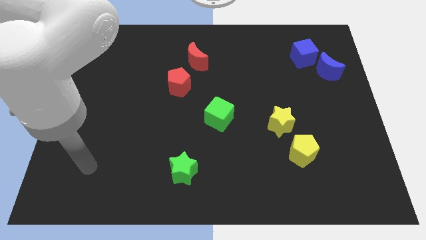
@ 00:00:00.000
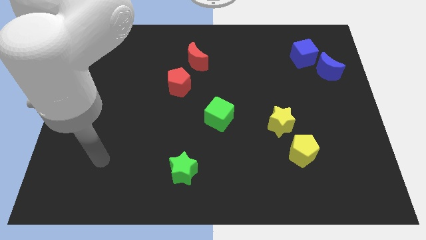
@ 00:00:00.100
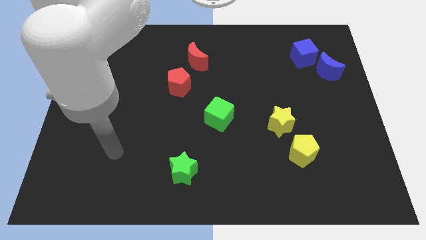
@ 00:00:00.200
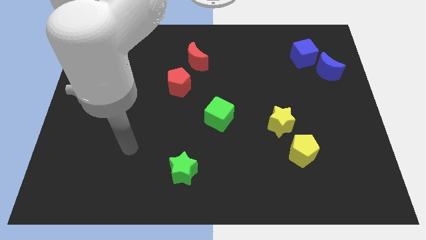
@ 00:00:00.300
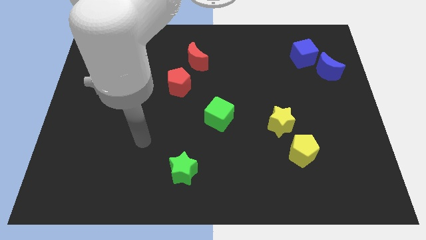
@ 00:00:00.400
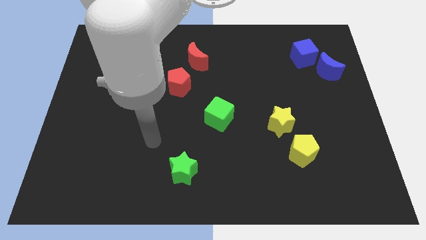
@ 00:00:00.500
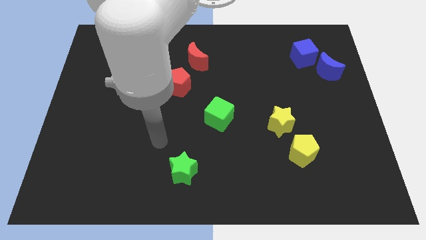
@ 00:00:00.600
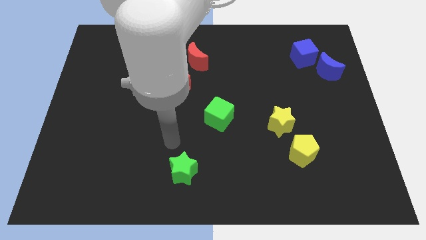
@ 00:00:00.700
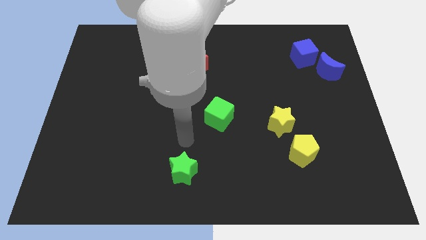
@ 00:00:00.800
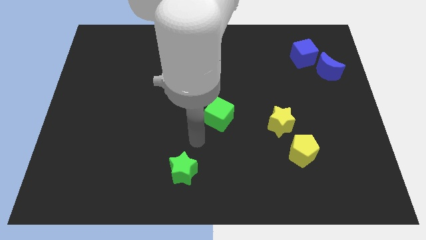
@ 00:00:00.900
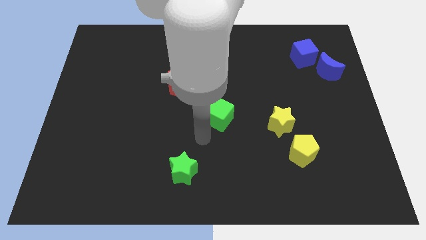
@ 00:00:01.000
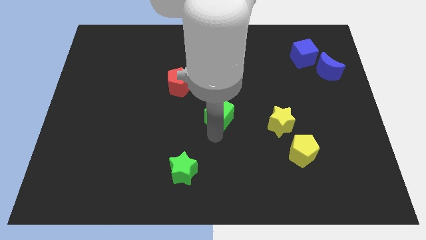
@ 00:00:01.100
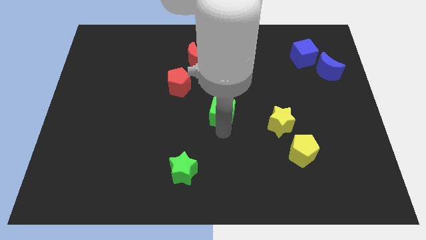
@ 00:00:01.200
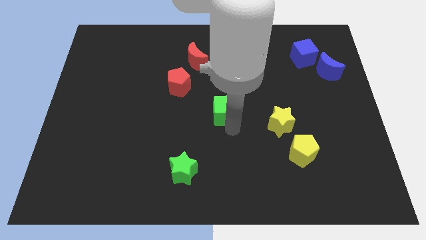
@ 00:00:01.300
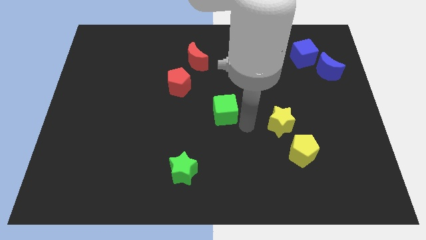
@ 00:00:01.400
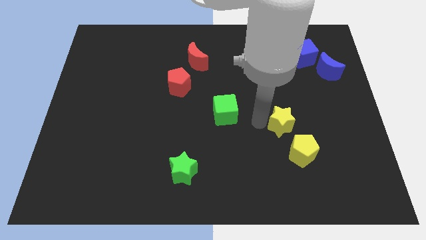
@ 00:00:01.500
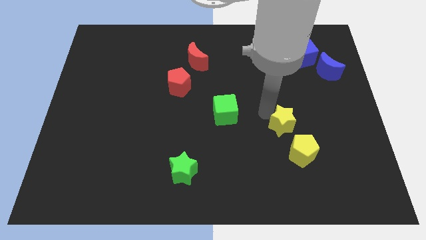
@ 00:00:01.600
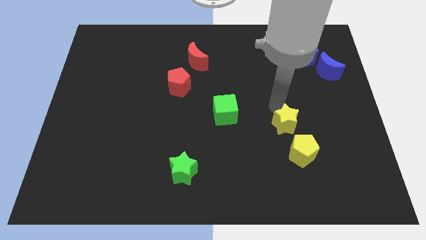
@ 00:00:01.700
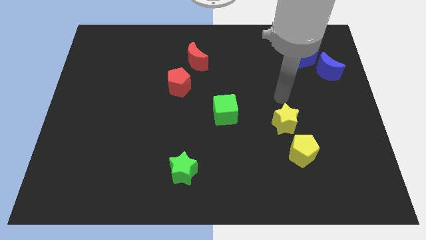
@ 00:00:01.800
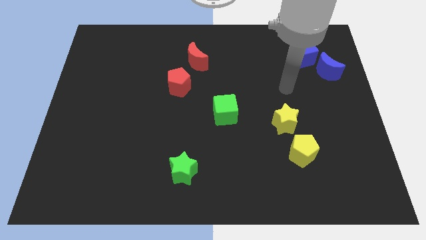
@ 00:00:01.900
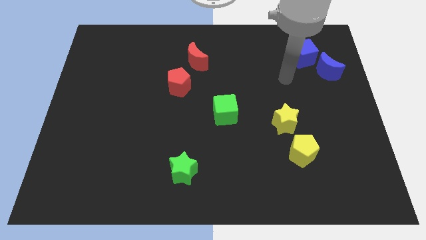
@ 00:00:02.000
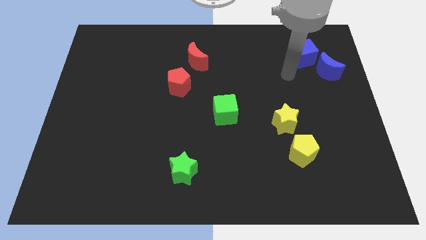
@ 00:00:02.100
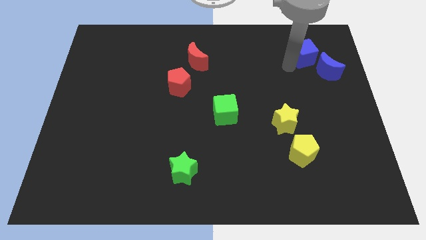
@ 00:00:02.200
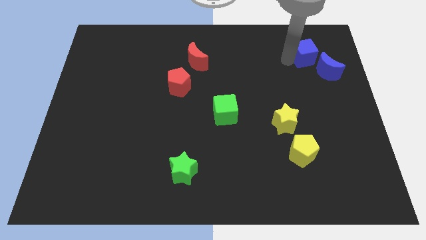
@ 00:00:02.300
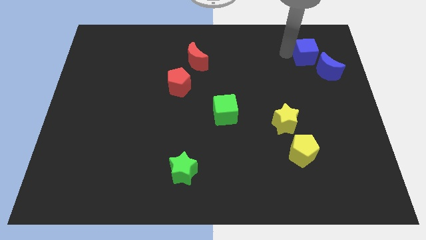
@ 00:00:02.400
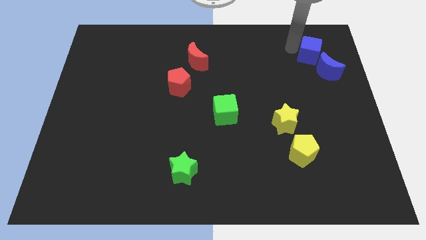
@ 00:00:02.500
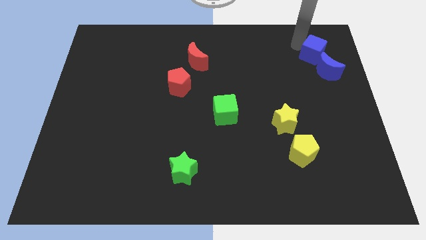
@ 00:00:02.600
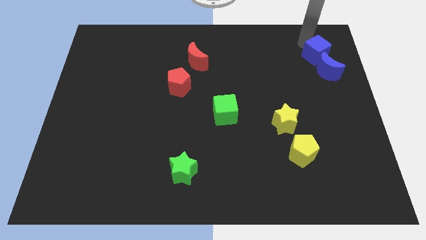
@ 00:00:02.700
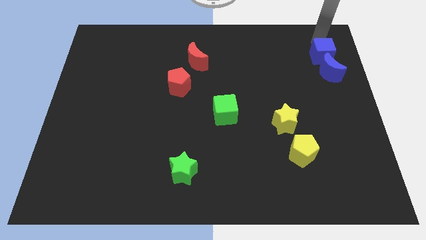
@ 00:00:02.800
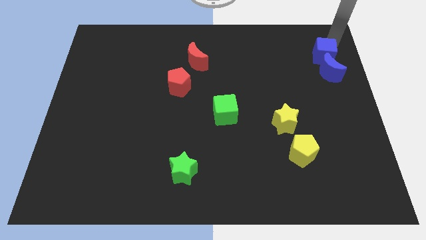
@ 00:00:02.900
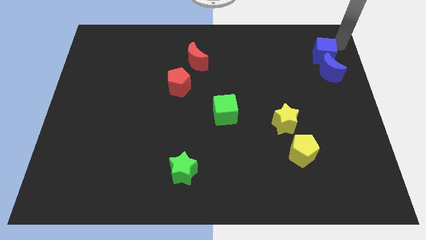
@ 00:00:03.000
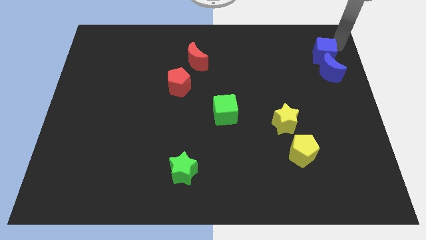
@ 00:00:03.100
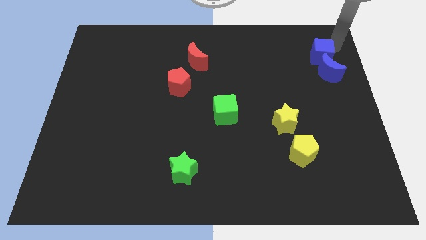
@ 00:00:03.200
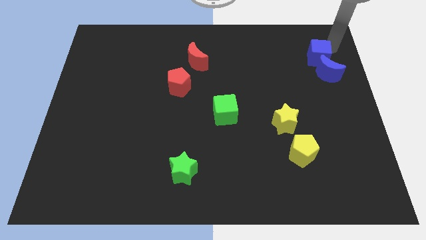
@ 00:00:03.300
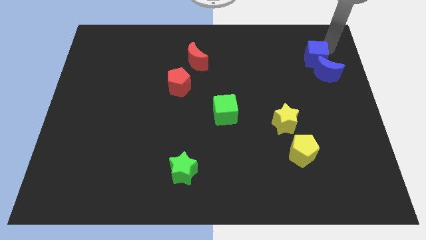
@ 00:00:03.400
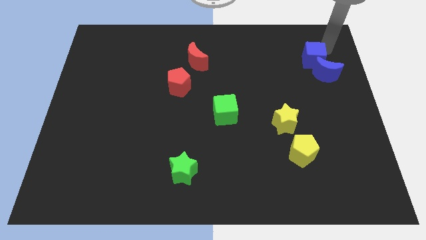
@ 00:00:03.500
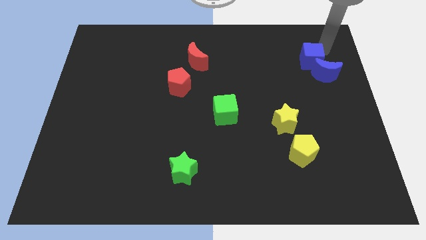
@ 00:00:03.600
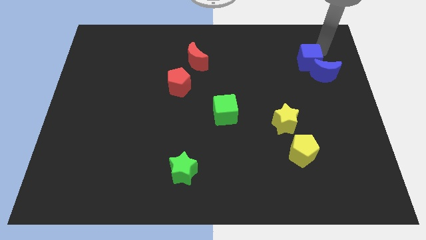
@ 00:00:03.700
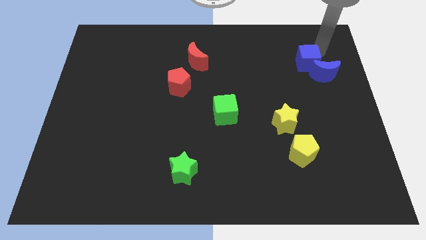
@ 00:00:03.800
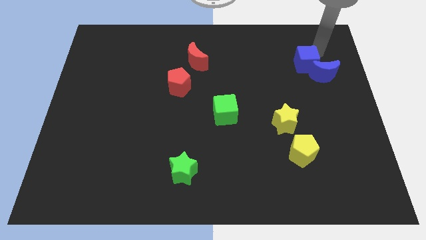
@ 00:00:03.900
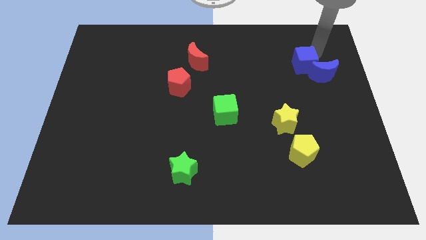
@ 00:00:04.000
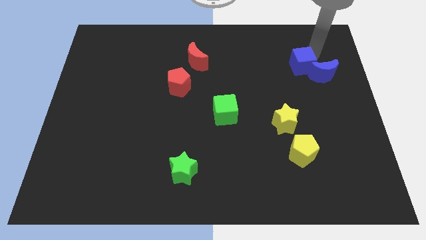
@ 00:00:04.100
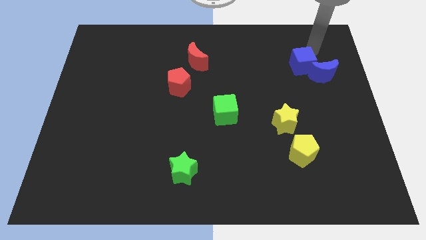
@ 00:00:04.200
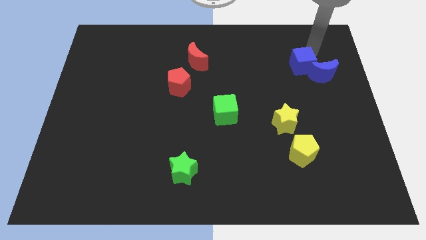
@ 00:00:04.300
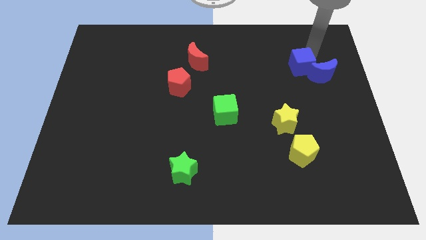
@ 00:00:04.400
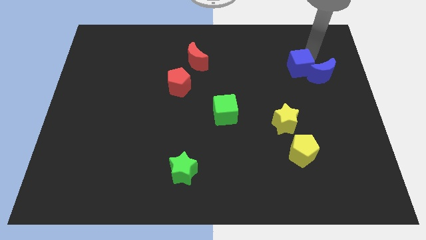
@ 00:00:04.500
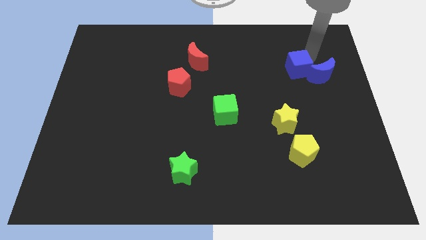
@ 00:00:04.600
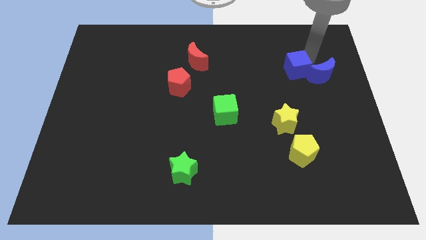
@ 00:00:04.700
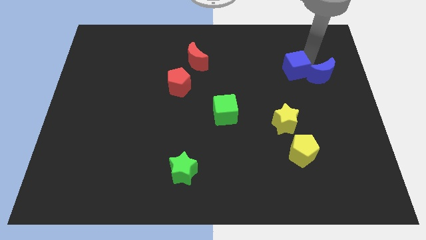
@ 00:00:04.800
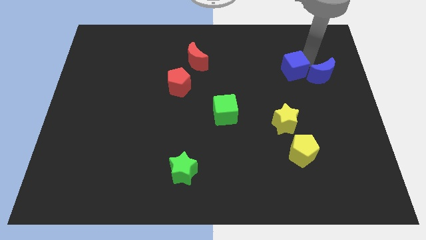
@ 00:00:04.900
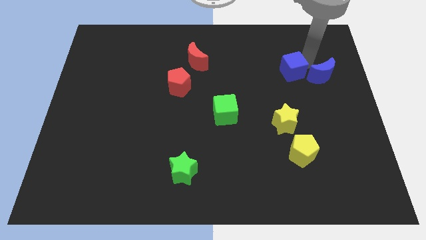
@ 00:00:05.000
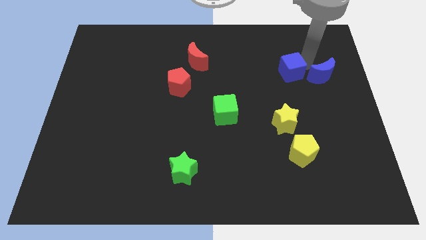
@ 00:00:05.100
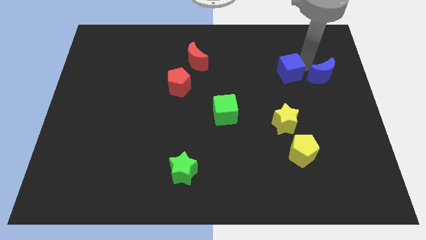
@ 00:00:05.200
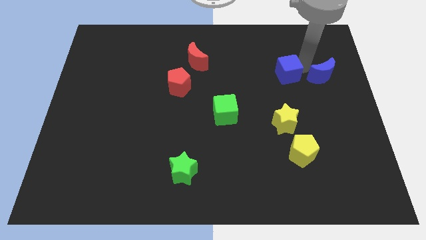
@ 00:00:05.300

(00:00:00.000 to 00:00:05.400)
slide the blue cube to the top side of the yellow star

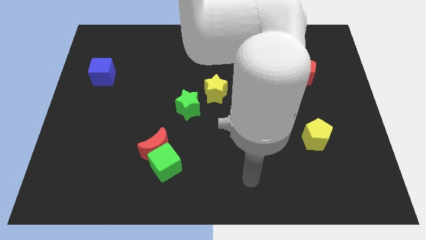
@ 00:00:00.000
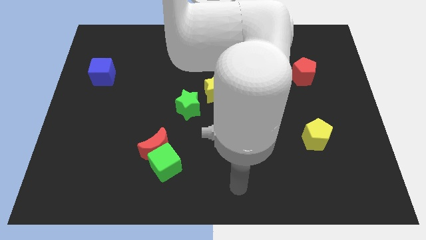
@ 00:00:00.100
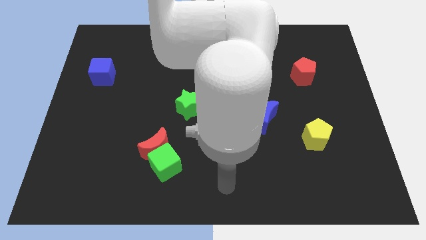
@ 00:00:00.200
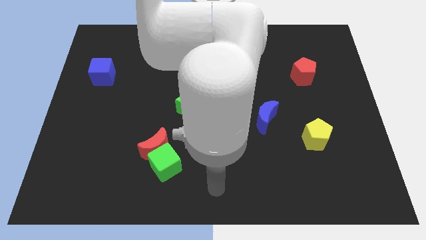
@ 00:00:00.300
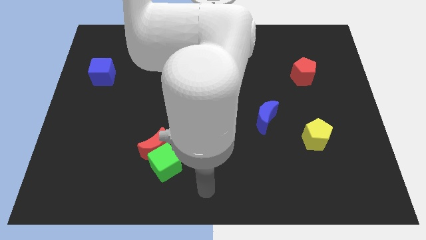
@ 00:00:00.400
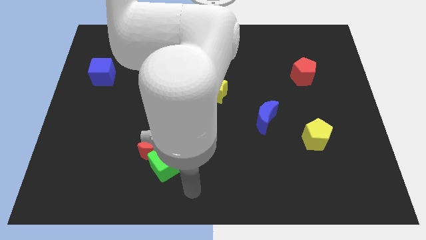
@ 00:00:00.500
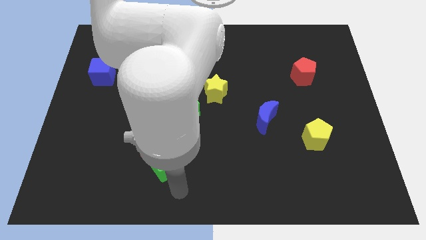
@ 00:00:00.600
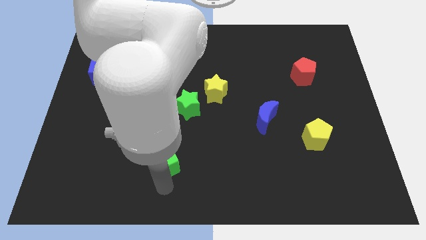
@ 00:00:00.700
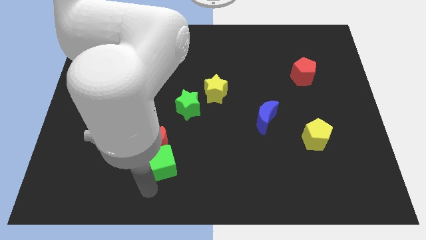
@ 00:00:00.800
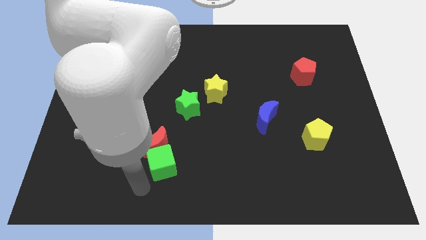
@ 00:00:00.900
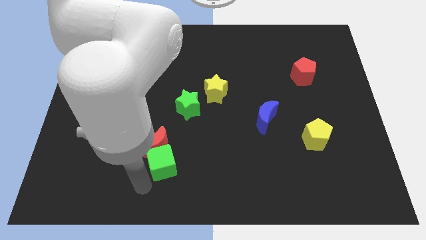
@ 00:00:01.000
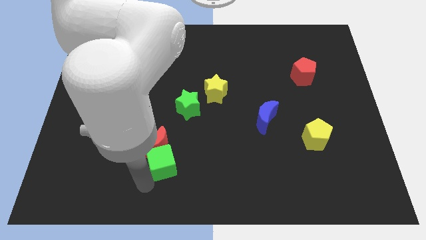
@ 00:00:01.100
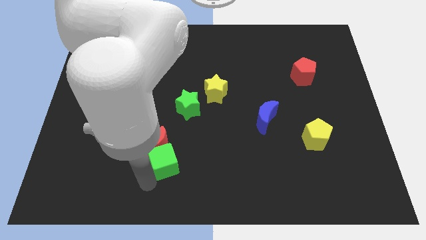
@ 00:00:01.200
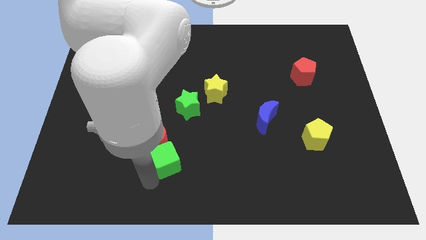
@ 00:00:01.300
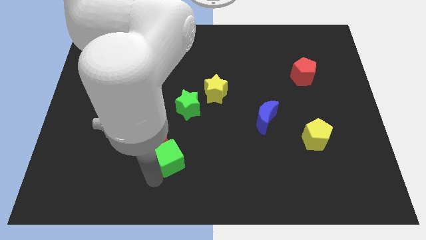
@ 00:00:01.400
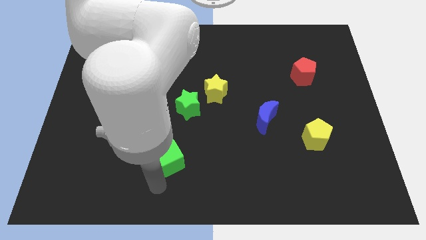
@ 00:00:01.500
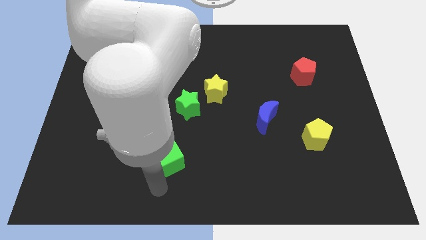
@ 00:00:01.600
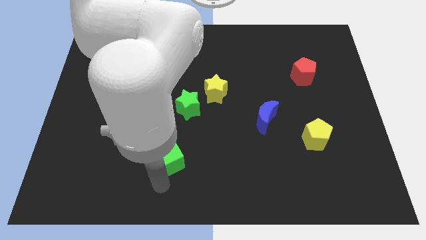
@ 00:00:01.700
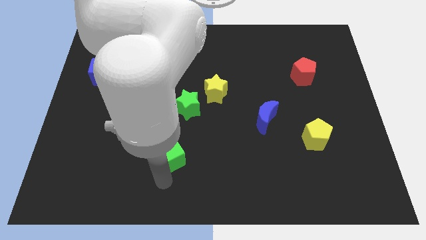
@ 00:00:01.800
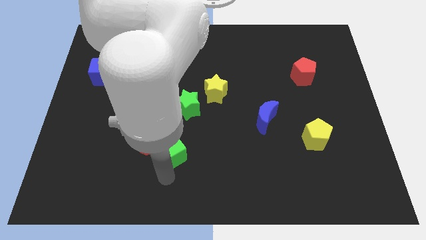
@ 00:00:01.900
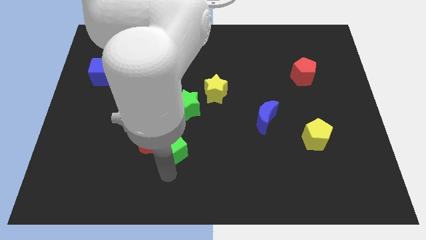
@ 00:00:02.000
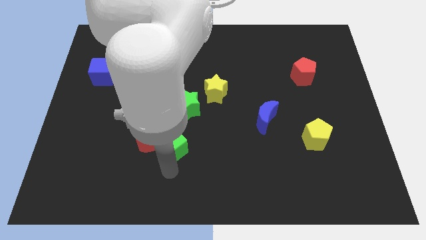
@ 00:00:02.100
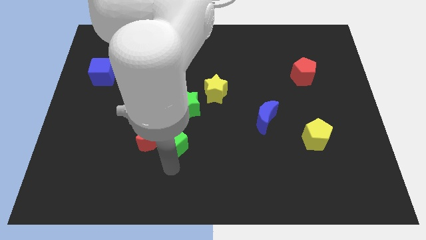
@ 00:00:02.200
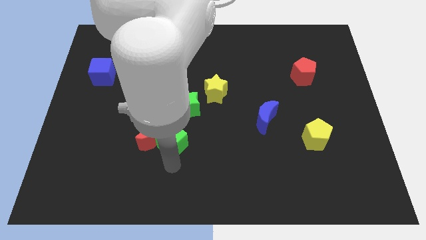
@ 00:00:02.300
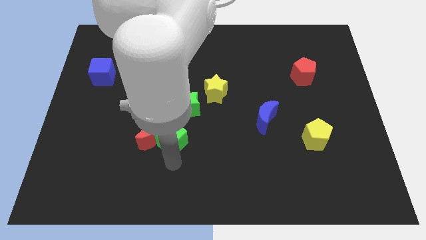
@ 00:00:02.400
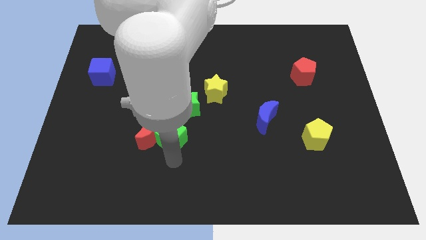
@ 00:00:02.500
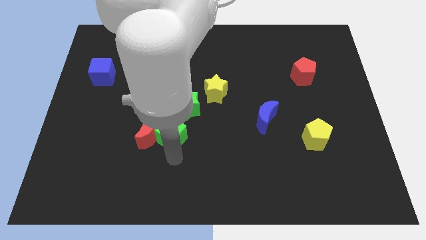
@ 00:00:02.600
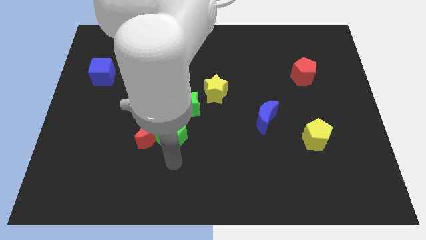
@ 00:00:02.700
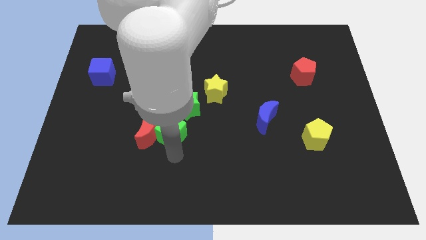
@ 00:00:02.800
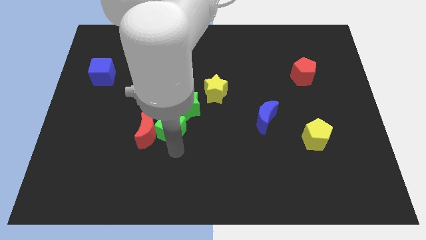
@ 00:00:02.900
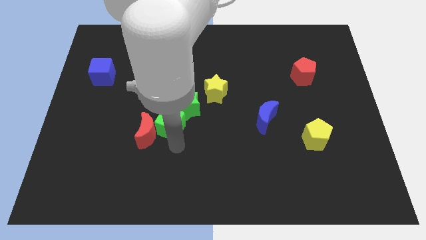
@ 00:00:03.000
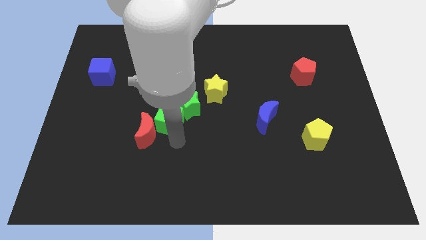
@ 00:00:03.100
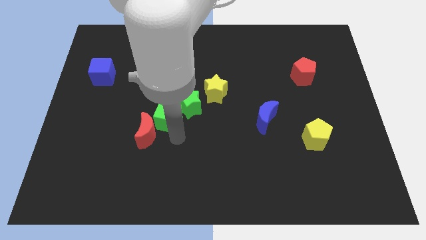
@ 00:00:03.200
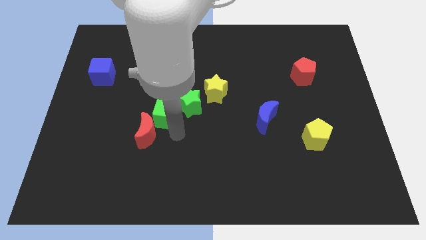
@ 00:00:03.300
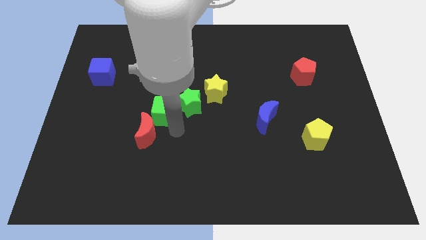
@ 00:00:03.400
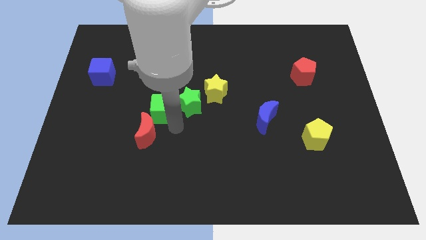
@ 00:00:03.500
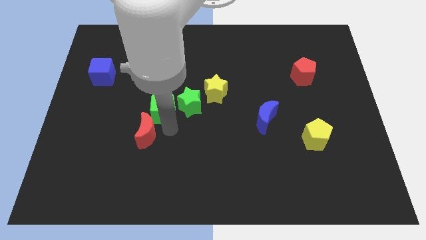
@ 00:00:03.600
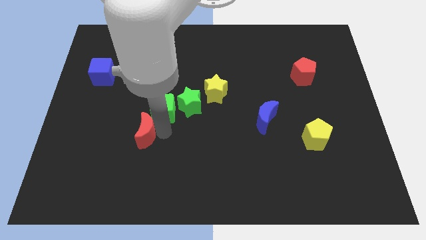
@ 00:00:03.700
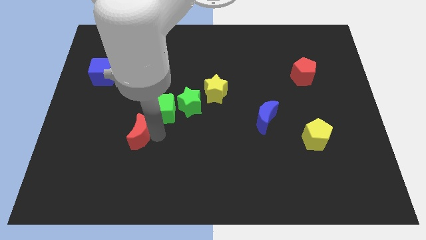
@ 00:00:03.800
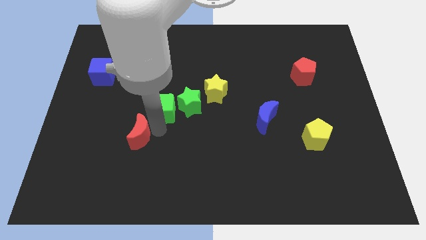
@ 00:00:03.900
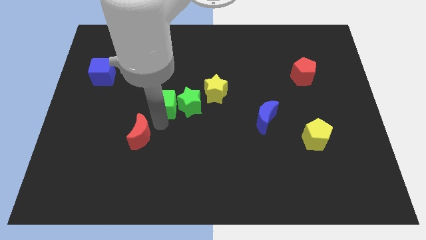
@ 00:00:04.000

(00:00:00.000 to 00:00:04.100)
push the green cube to the top left side of the green star
